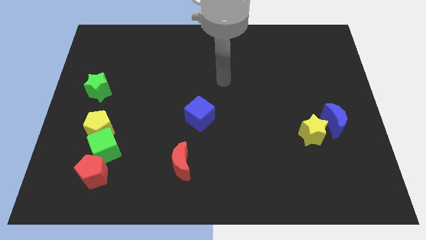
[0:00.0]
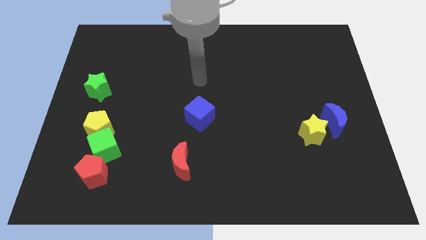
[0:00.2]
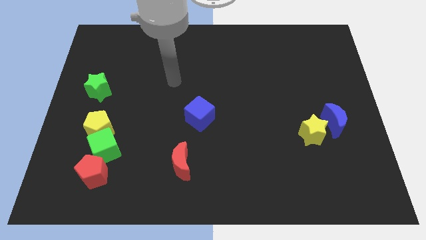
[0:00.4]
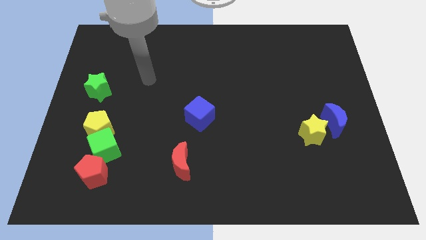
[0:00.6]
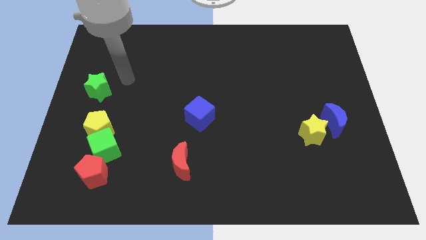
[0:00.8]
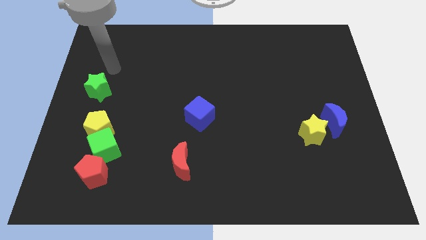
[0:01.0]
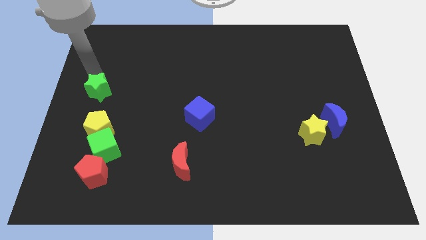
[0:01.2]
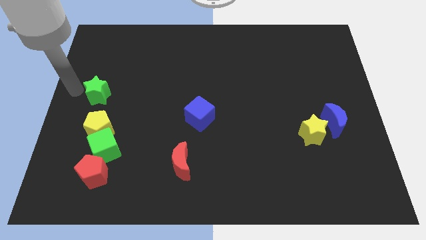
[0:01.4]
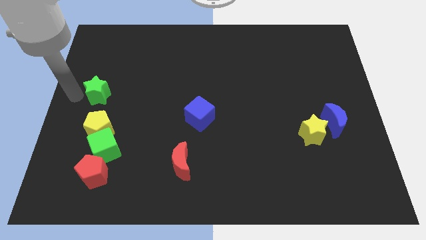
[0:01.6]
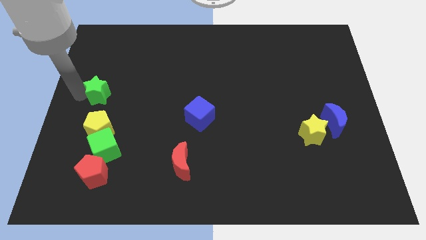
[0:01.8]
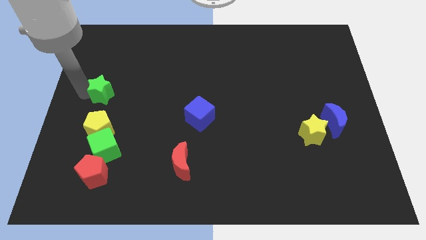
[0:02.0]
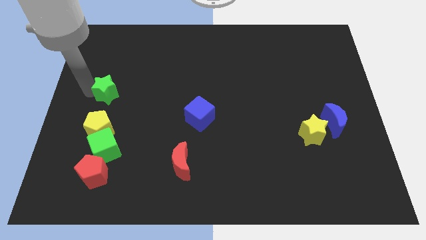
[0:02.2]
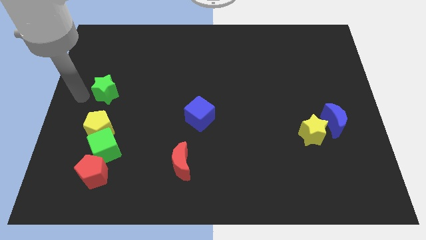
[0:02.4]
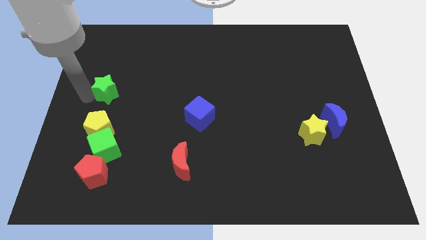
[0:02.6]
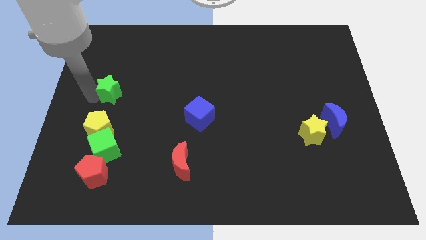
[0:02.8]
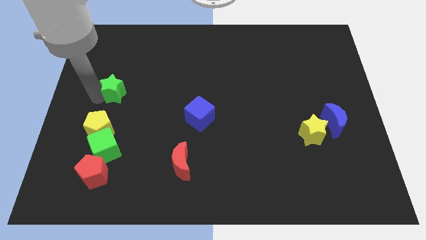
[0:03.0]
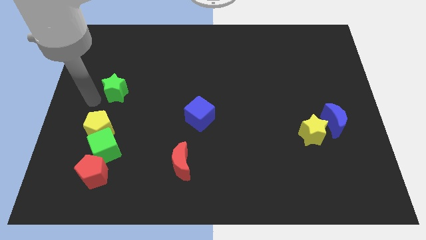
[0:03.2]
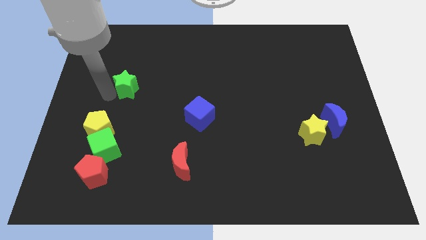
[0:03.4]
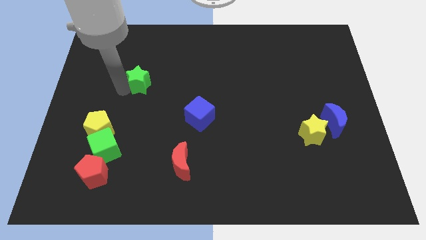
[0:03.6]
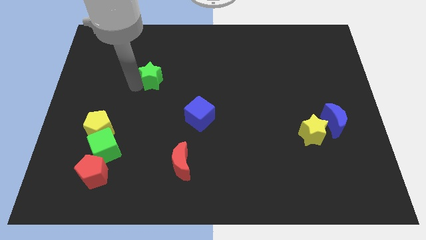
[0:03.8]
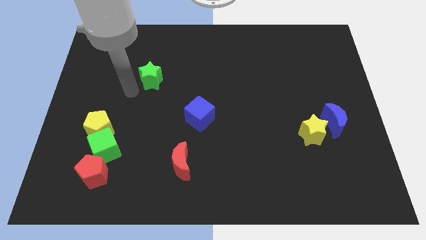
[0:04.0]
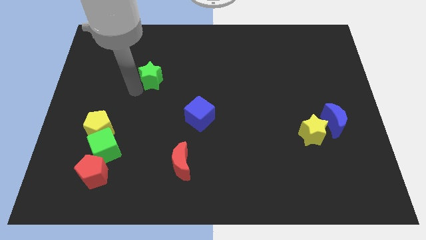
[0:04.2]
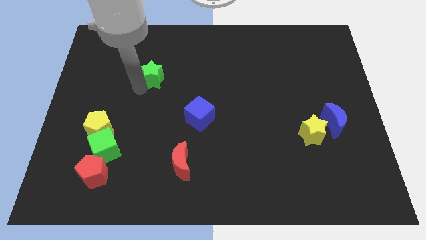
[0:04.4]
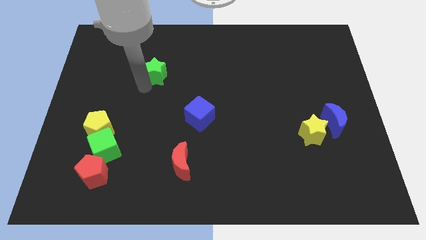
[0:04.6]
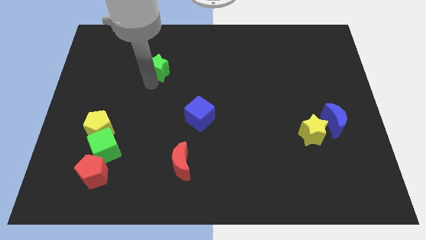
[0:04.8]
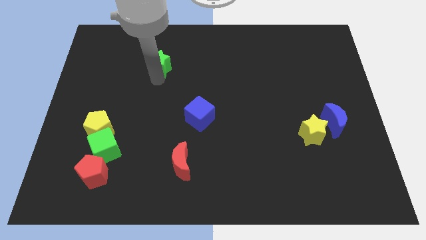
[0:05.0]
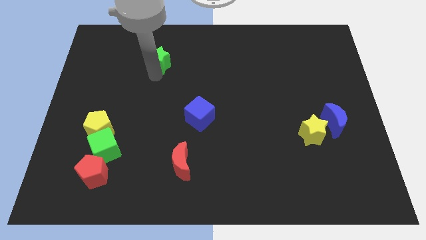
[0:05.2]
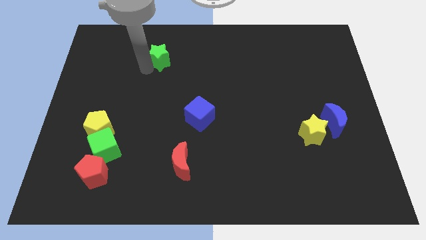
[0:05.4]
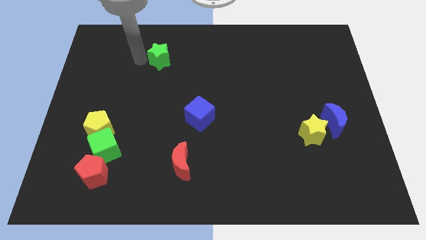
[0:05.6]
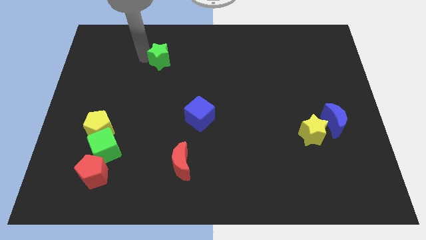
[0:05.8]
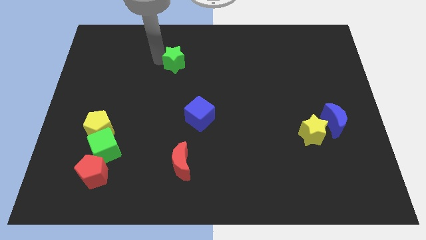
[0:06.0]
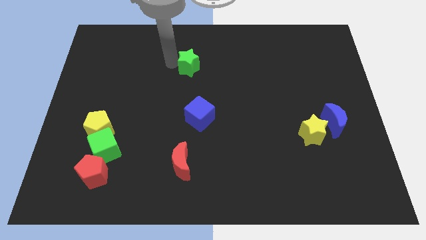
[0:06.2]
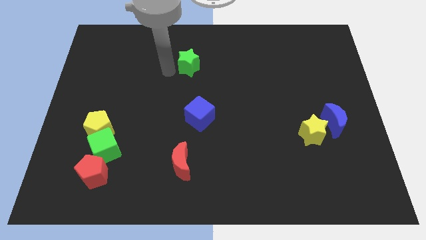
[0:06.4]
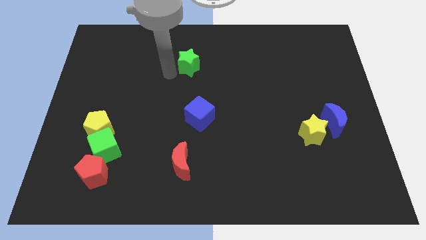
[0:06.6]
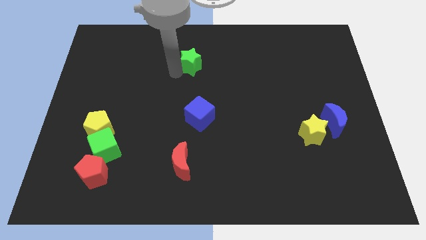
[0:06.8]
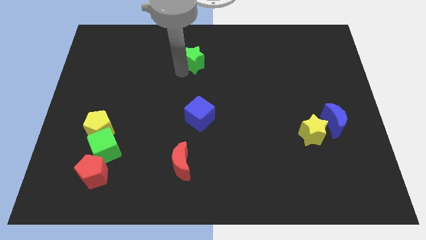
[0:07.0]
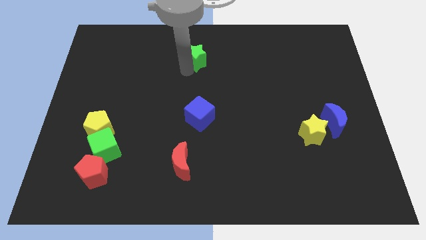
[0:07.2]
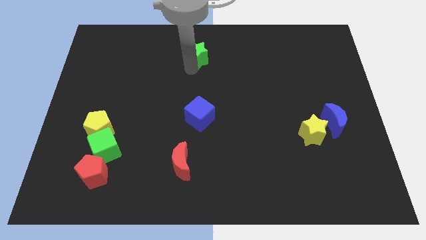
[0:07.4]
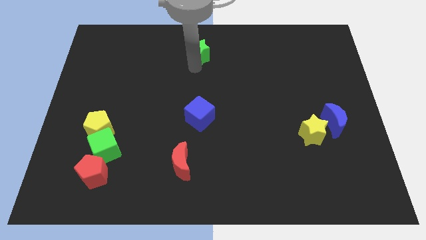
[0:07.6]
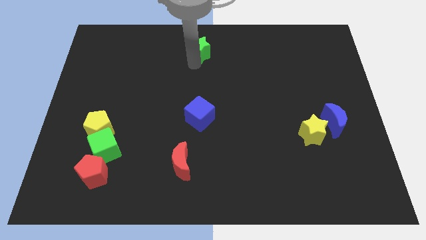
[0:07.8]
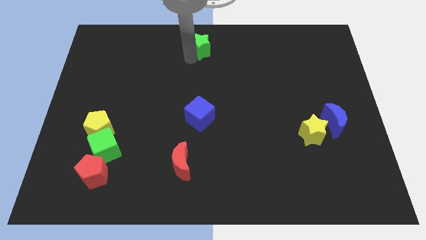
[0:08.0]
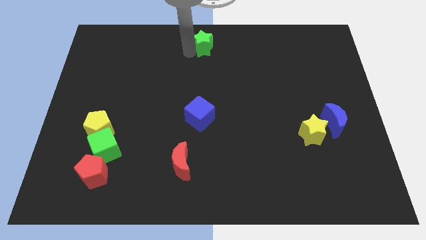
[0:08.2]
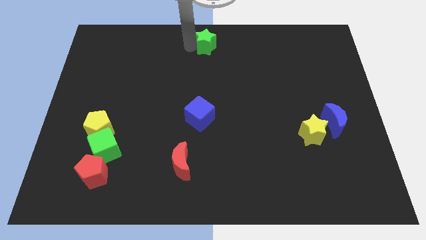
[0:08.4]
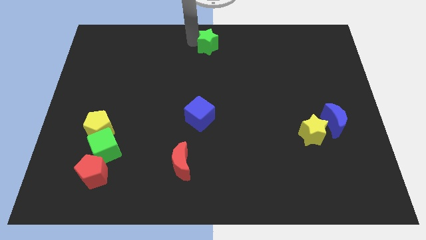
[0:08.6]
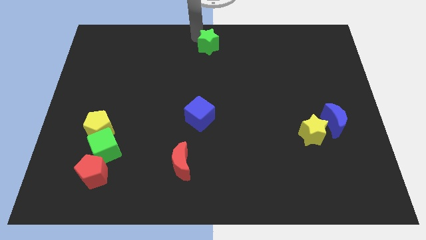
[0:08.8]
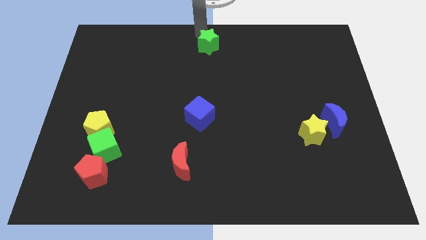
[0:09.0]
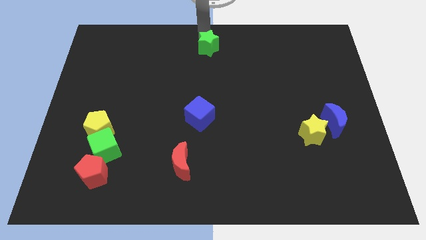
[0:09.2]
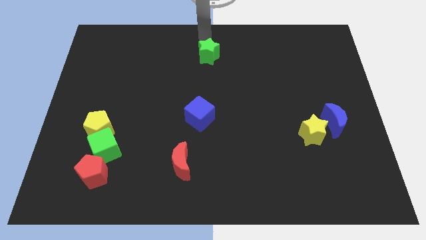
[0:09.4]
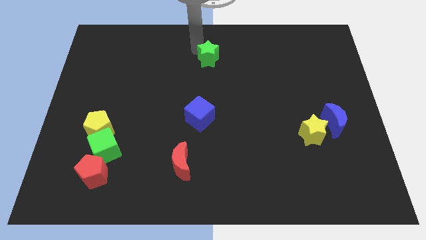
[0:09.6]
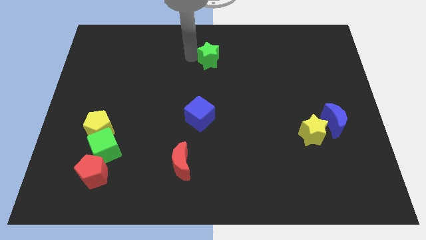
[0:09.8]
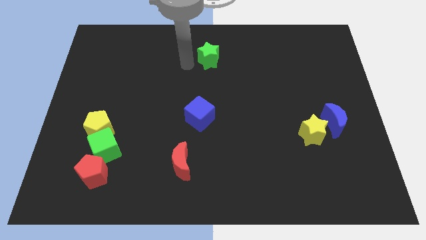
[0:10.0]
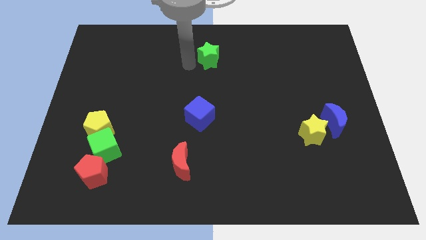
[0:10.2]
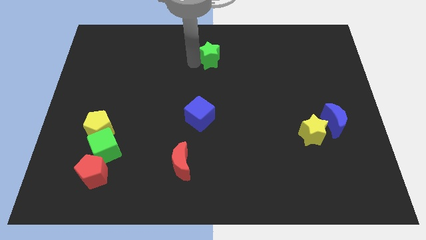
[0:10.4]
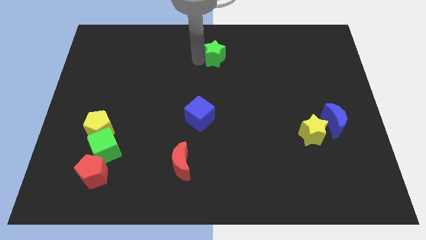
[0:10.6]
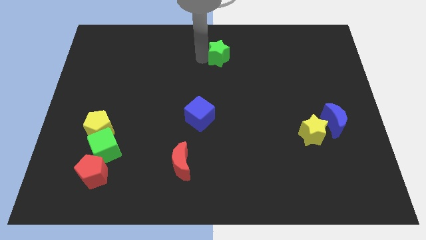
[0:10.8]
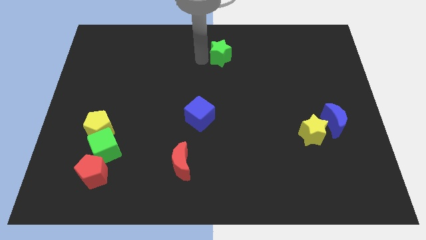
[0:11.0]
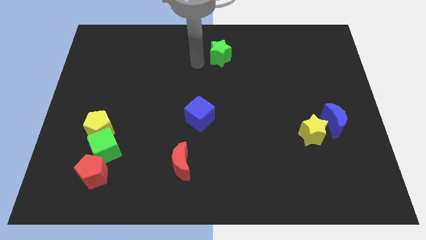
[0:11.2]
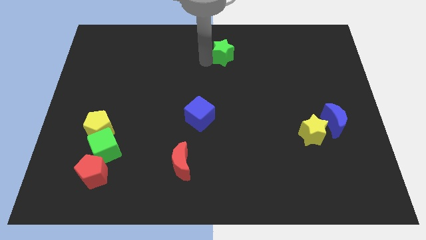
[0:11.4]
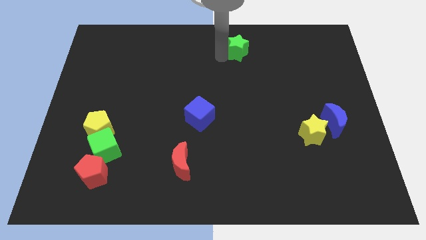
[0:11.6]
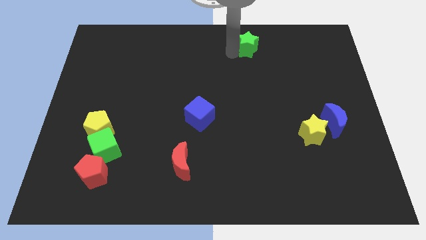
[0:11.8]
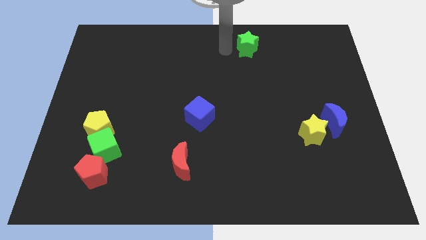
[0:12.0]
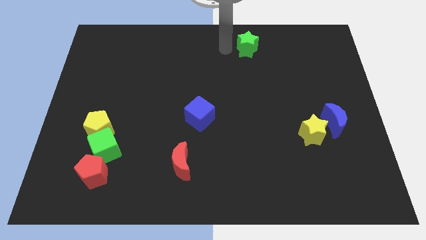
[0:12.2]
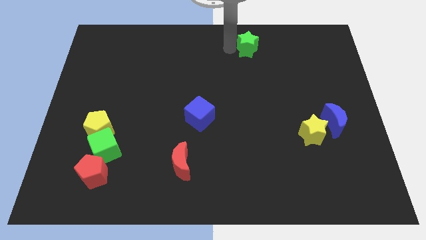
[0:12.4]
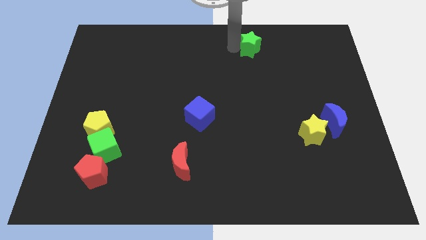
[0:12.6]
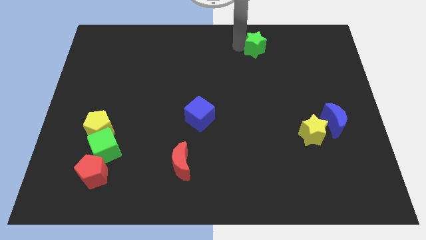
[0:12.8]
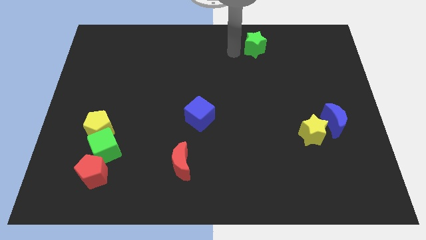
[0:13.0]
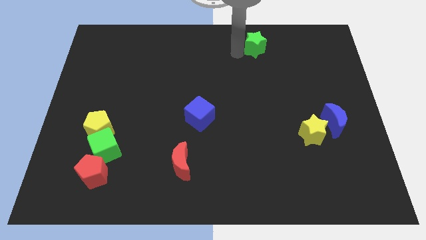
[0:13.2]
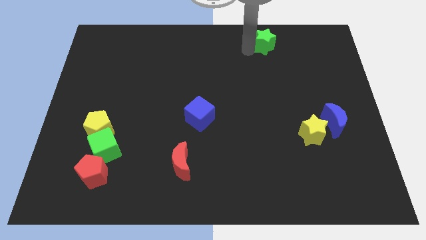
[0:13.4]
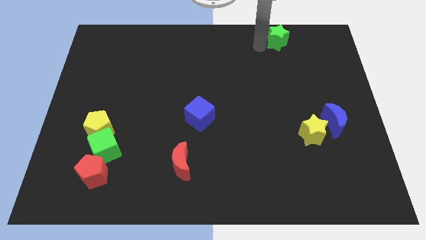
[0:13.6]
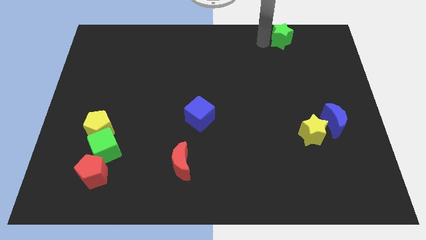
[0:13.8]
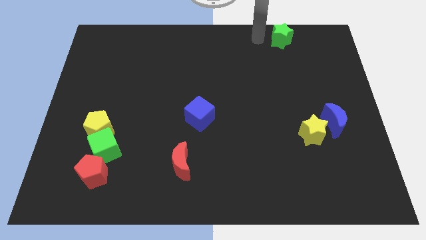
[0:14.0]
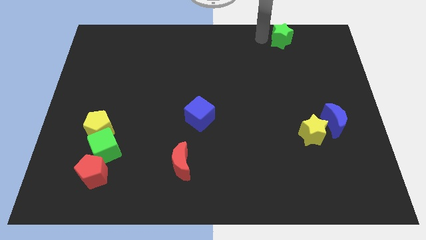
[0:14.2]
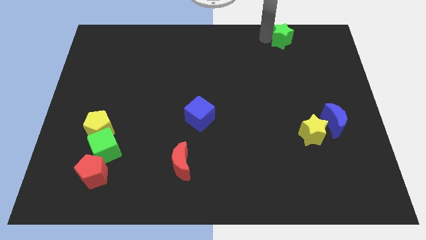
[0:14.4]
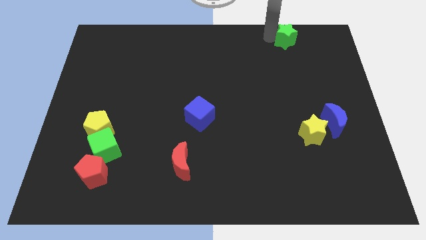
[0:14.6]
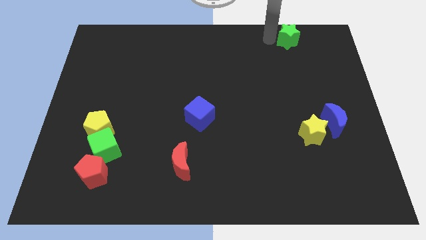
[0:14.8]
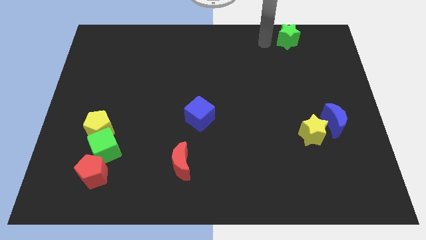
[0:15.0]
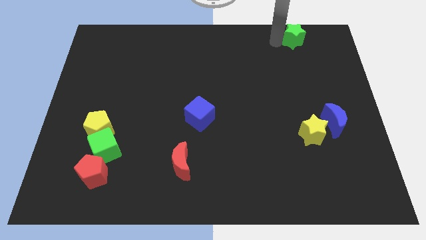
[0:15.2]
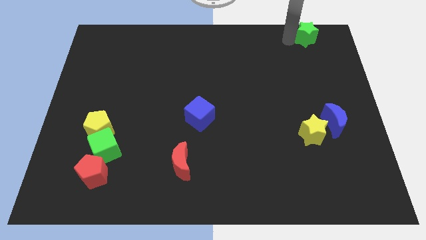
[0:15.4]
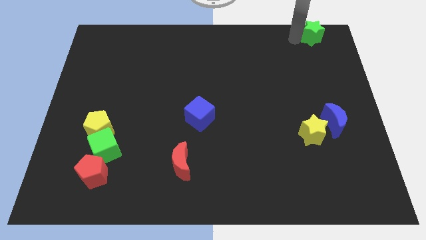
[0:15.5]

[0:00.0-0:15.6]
move the green star to the top right corner
